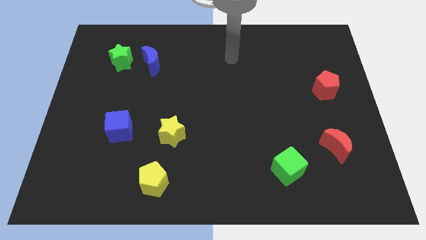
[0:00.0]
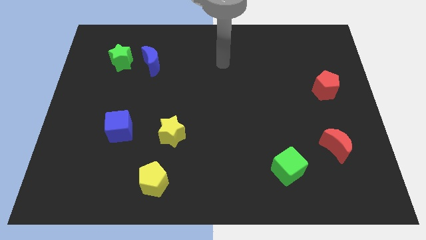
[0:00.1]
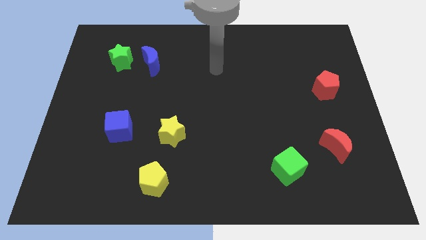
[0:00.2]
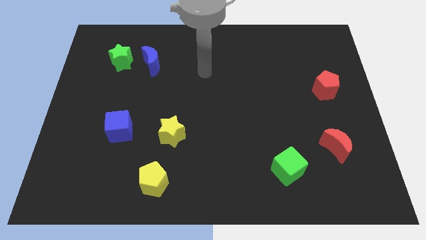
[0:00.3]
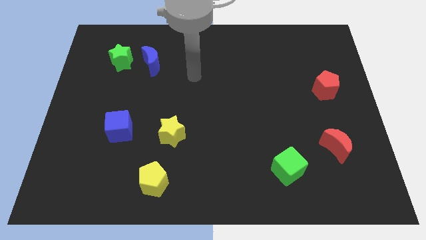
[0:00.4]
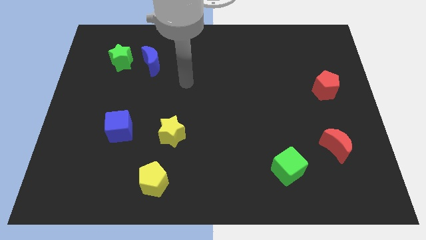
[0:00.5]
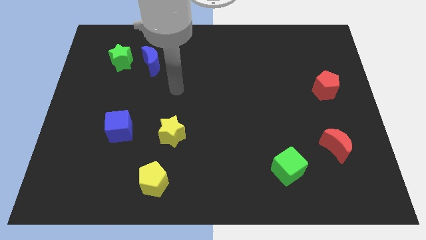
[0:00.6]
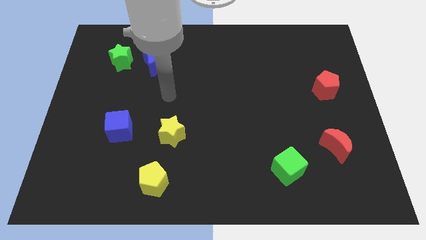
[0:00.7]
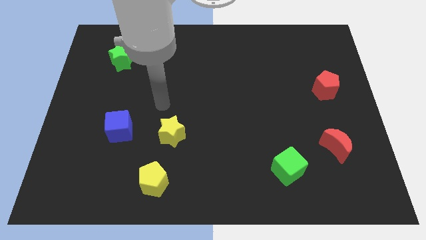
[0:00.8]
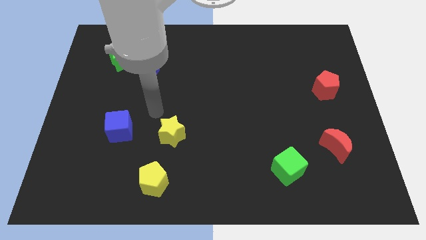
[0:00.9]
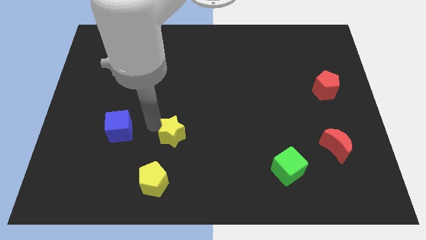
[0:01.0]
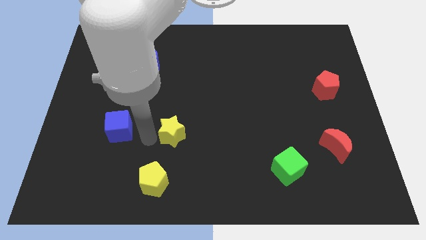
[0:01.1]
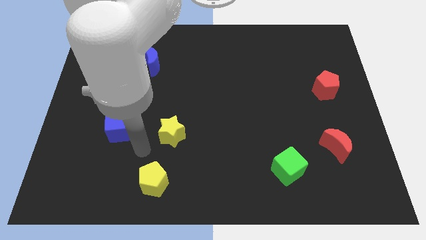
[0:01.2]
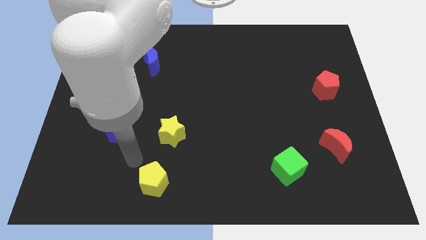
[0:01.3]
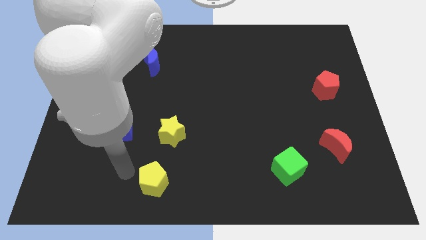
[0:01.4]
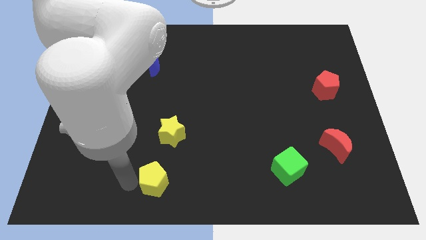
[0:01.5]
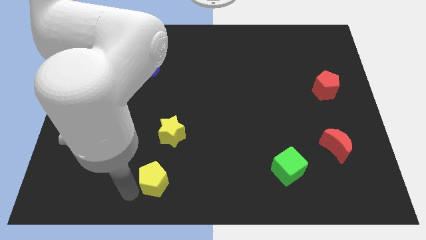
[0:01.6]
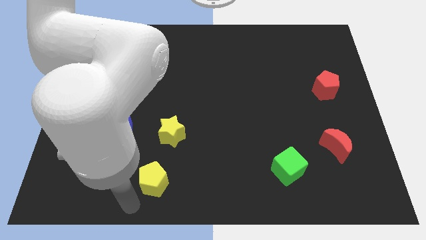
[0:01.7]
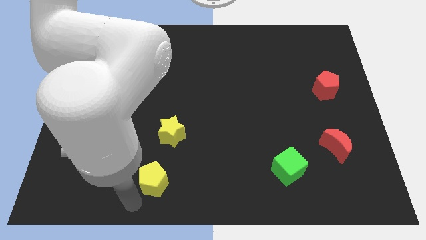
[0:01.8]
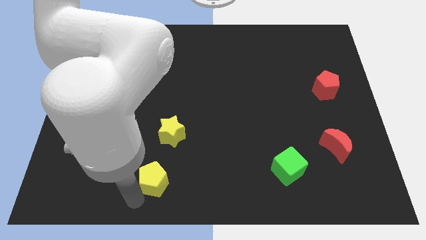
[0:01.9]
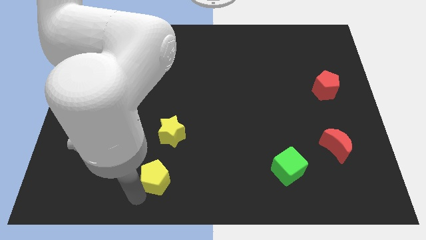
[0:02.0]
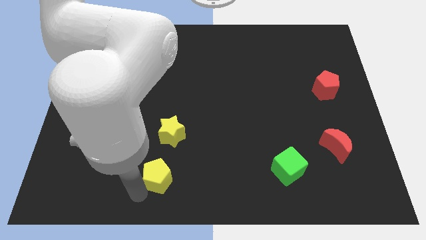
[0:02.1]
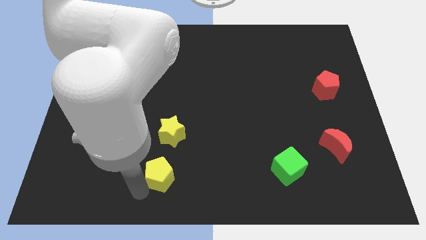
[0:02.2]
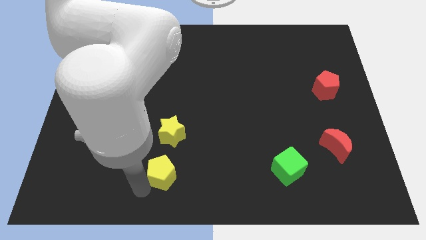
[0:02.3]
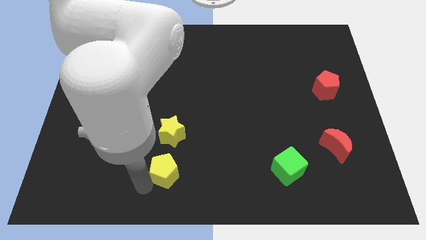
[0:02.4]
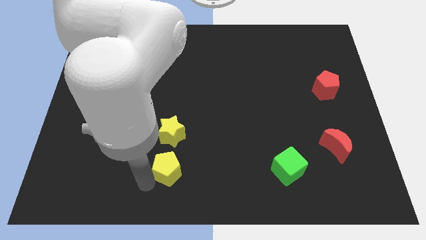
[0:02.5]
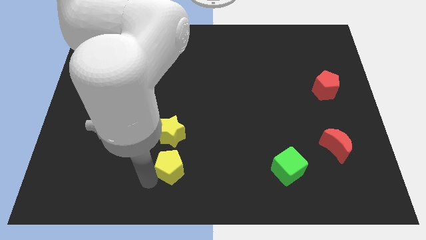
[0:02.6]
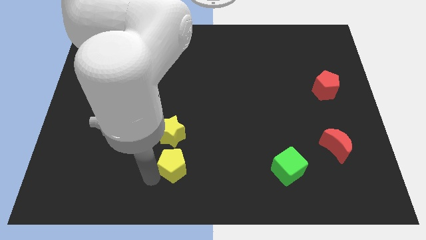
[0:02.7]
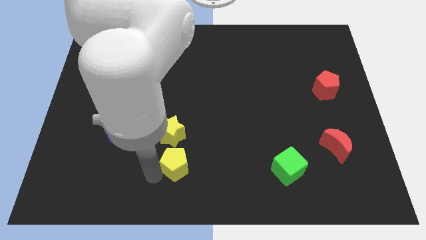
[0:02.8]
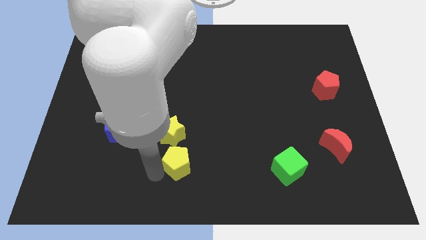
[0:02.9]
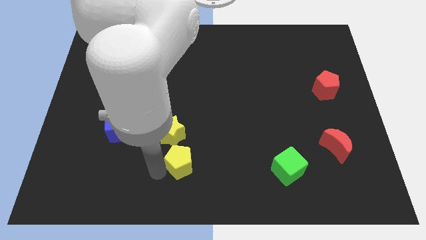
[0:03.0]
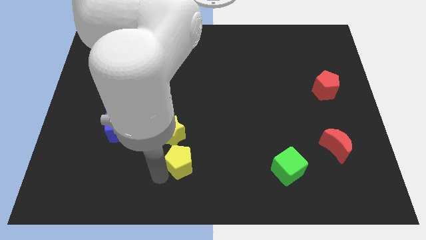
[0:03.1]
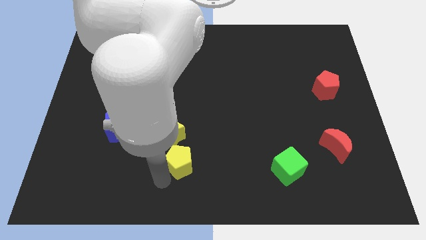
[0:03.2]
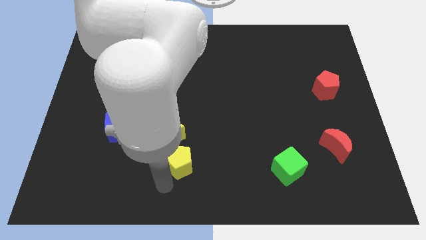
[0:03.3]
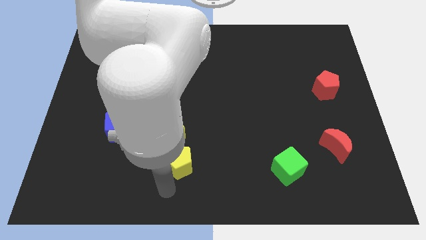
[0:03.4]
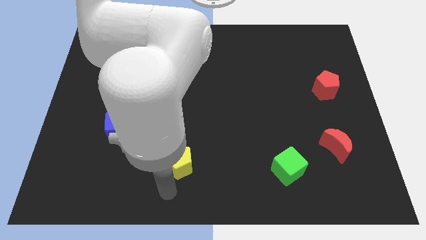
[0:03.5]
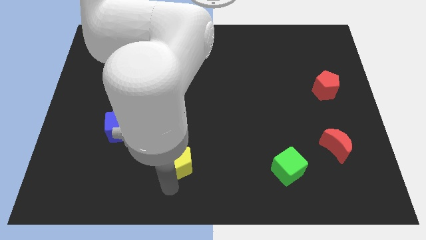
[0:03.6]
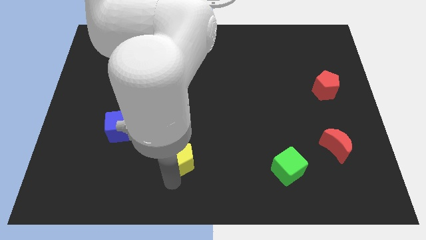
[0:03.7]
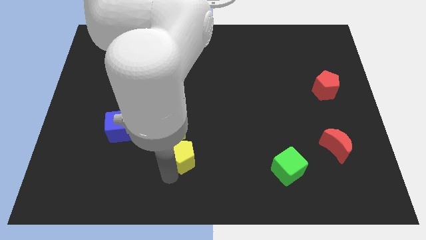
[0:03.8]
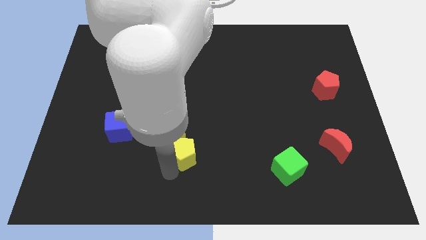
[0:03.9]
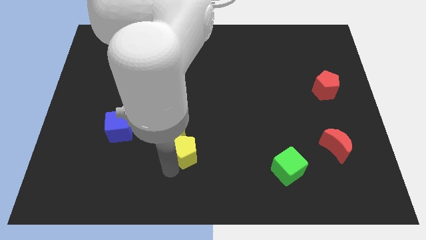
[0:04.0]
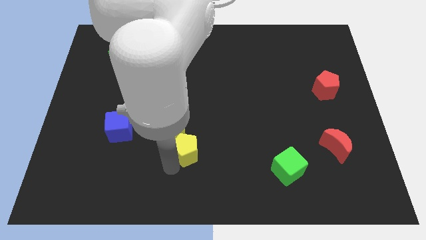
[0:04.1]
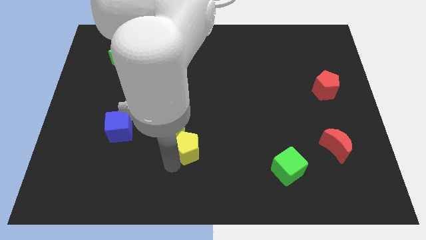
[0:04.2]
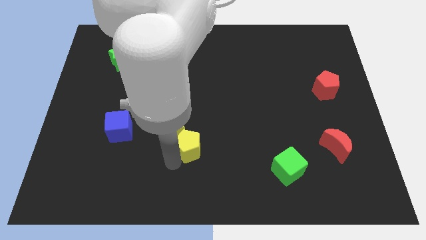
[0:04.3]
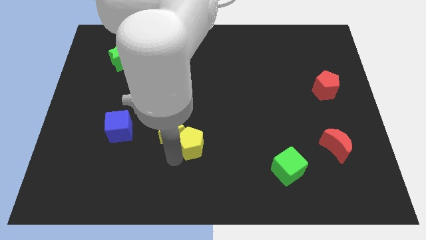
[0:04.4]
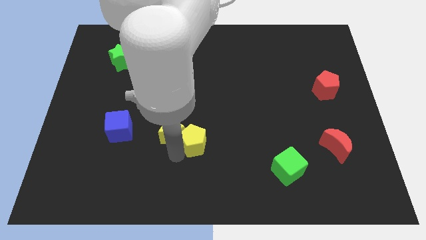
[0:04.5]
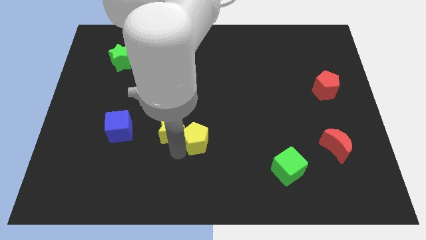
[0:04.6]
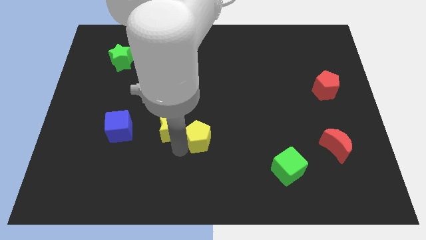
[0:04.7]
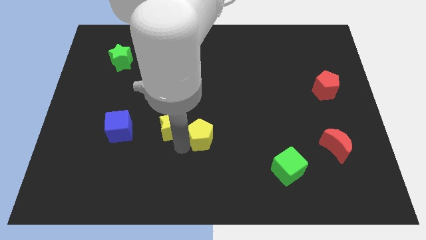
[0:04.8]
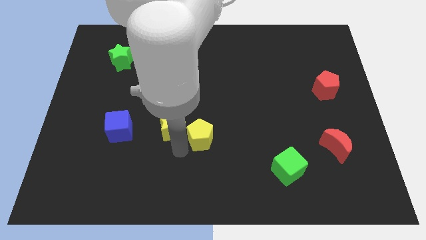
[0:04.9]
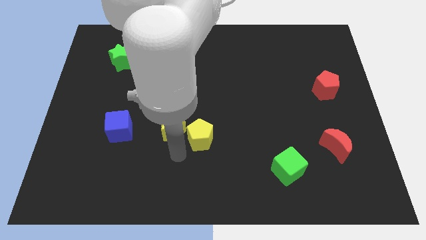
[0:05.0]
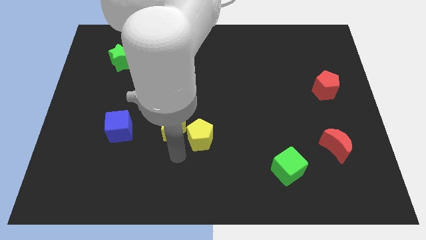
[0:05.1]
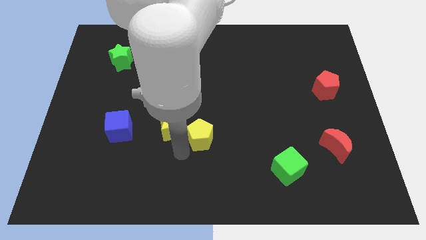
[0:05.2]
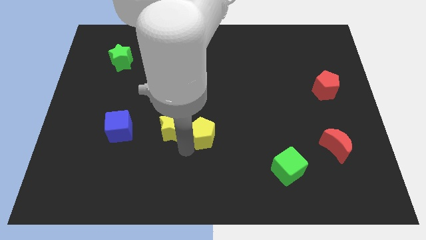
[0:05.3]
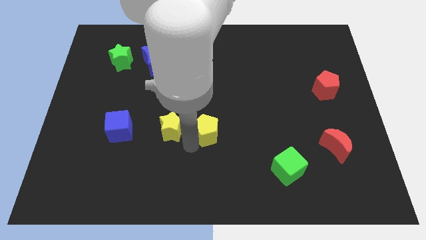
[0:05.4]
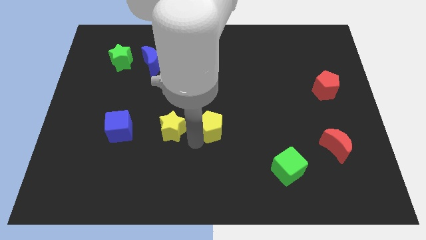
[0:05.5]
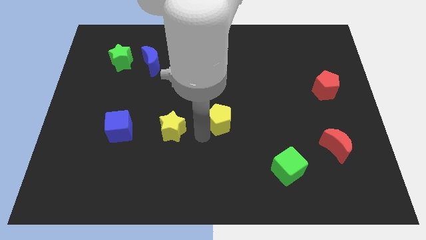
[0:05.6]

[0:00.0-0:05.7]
move the yellow pentagon upwards and then right

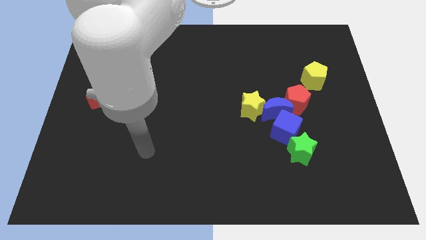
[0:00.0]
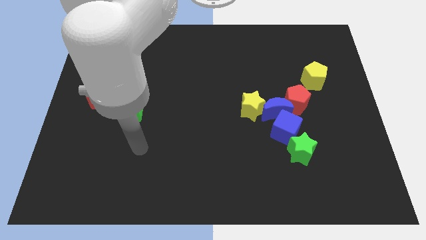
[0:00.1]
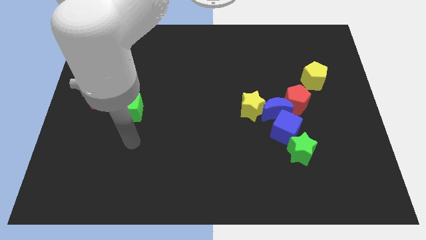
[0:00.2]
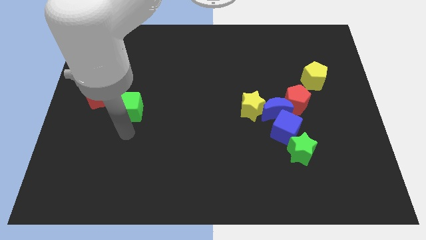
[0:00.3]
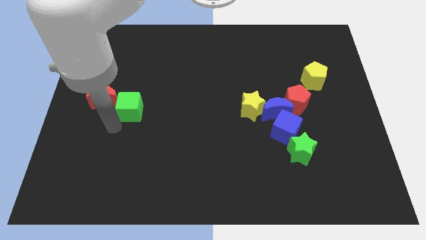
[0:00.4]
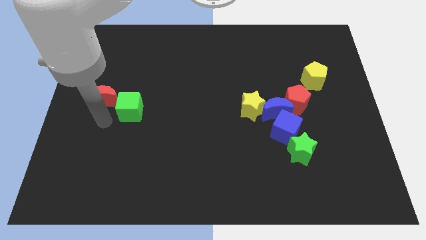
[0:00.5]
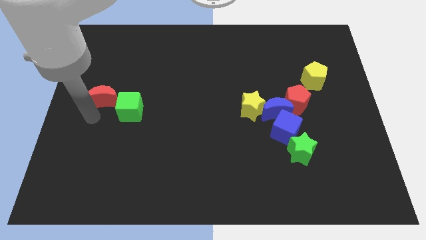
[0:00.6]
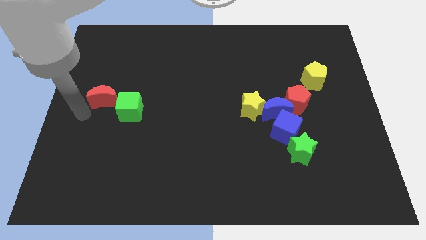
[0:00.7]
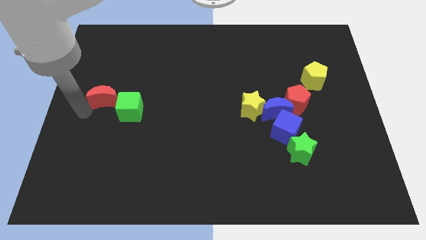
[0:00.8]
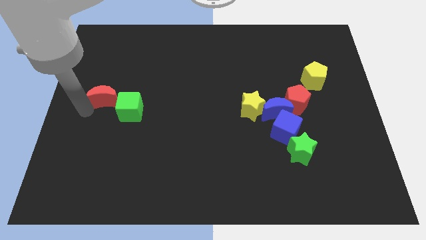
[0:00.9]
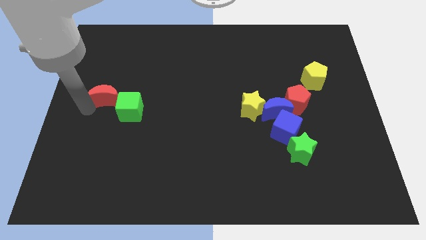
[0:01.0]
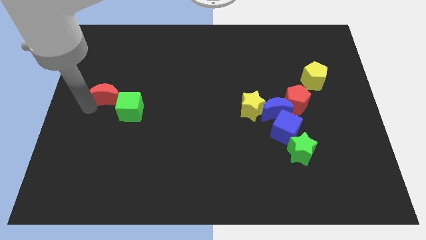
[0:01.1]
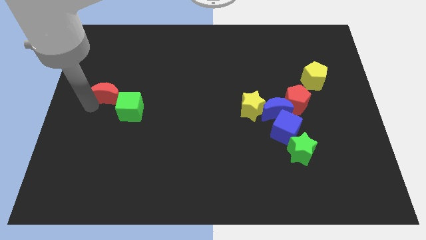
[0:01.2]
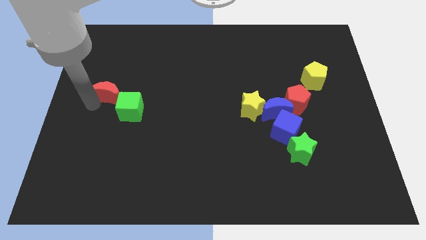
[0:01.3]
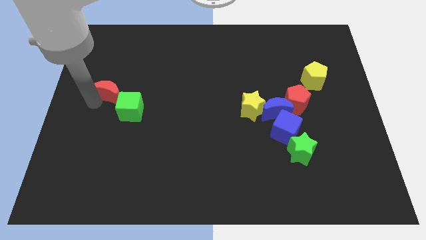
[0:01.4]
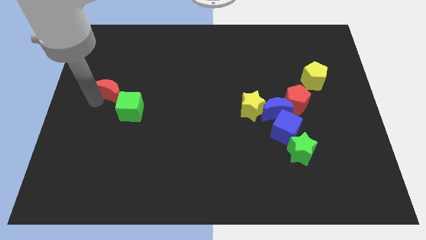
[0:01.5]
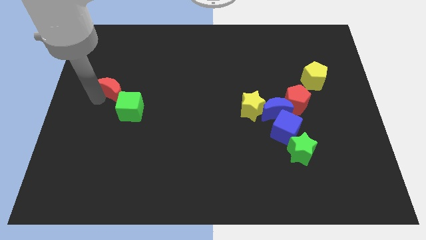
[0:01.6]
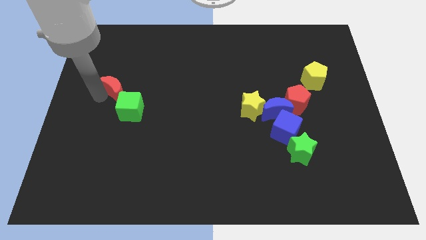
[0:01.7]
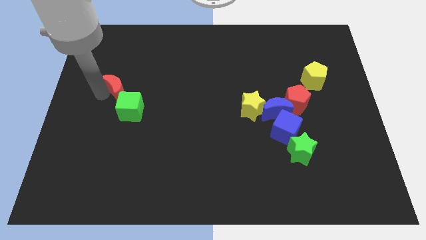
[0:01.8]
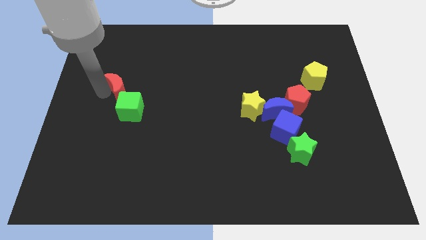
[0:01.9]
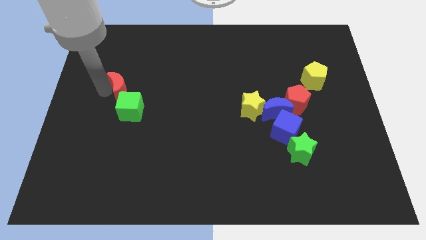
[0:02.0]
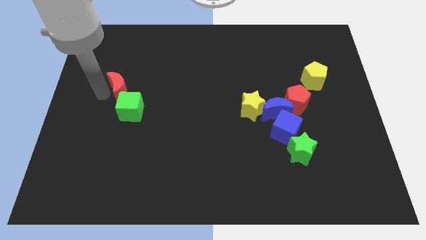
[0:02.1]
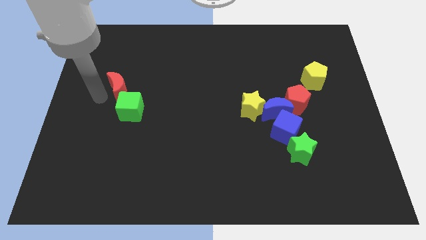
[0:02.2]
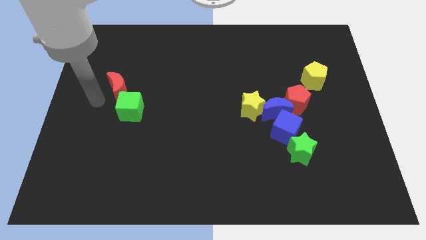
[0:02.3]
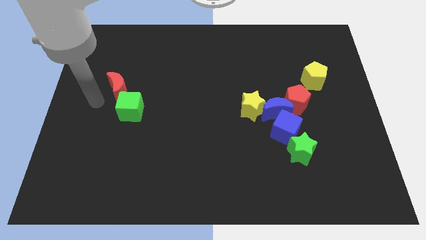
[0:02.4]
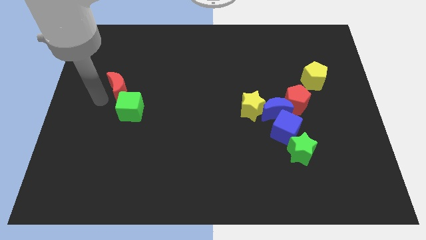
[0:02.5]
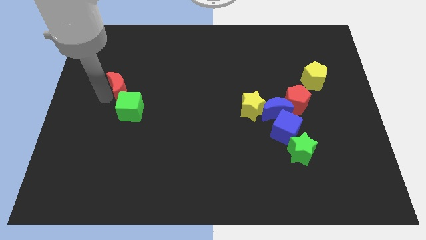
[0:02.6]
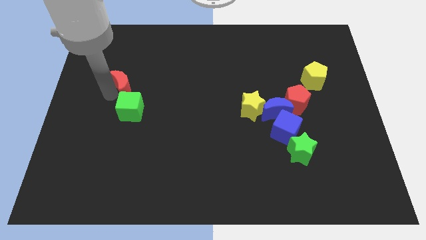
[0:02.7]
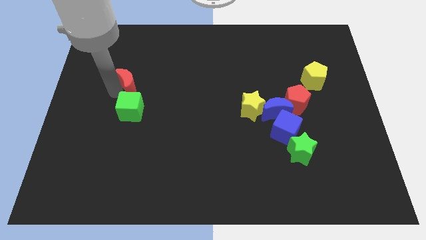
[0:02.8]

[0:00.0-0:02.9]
push the red moon a little bit upwards and to the right
